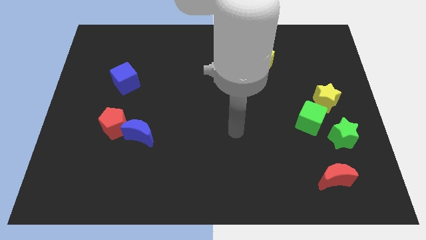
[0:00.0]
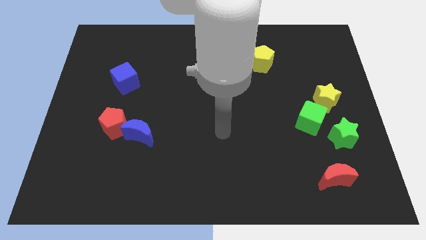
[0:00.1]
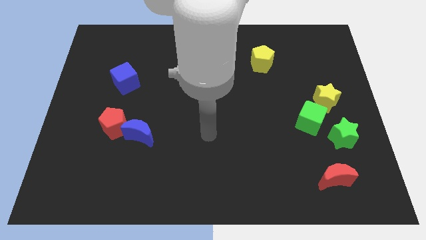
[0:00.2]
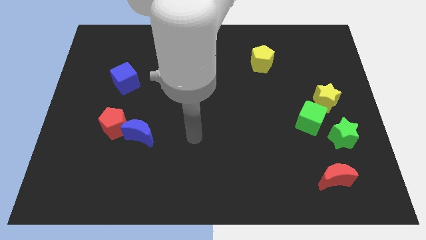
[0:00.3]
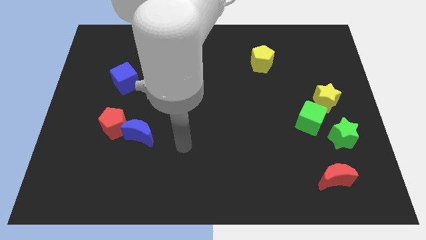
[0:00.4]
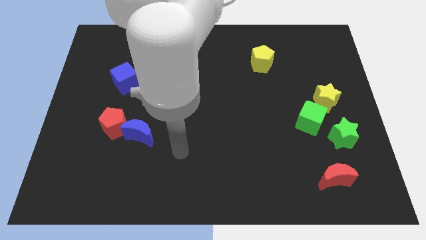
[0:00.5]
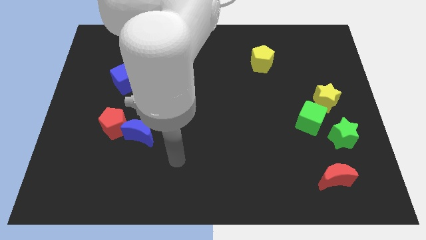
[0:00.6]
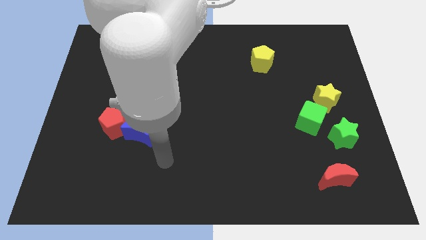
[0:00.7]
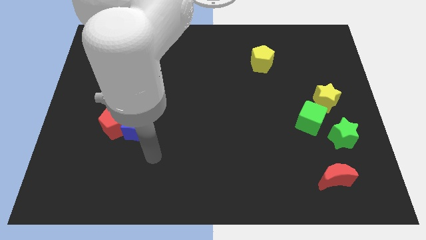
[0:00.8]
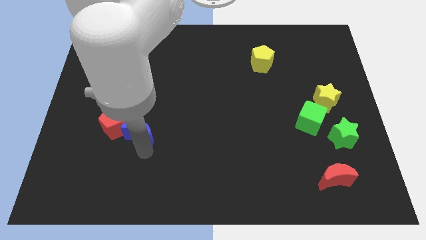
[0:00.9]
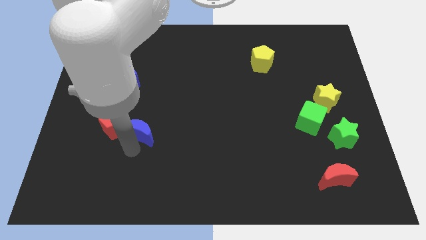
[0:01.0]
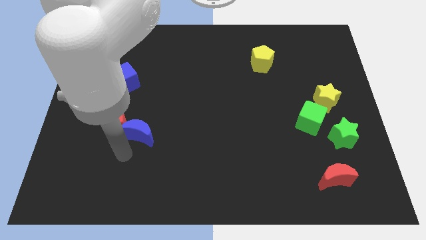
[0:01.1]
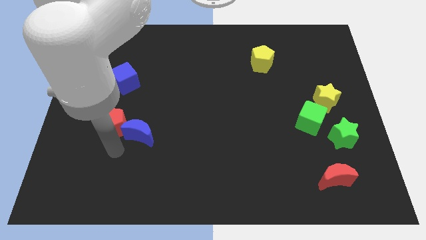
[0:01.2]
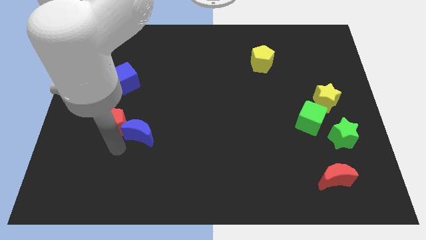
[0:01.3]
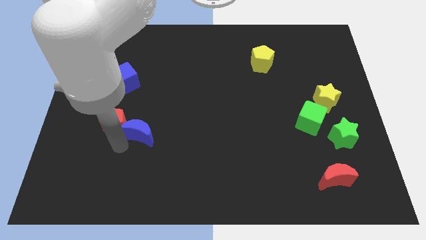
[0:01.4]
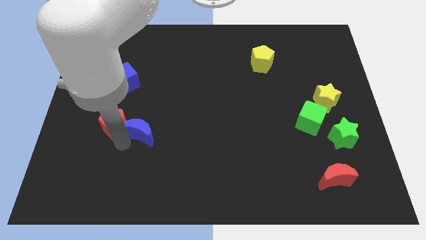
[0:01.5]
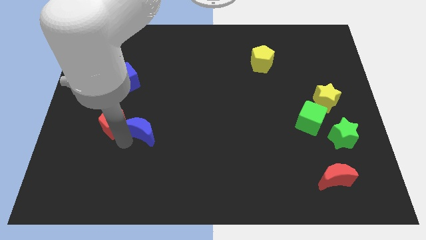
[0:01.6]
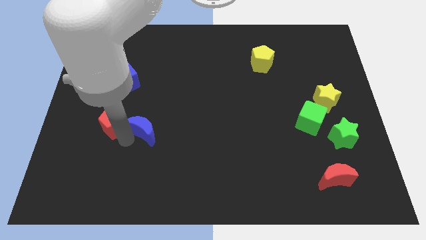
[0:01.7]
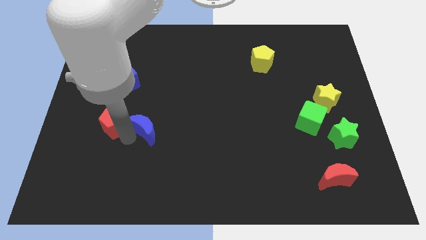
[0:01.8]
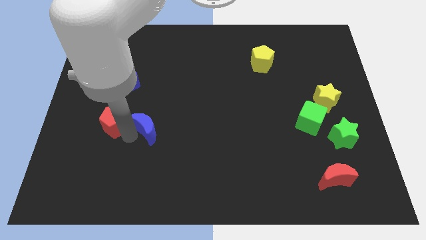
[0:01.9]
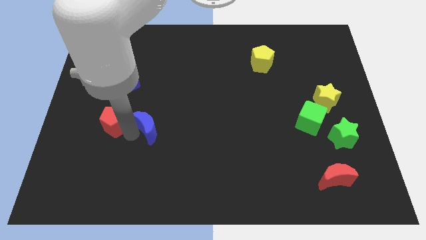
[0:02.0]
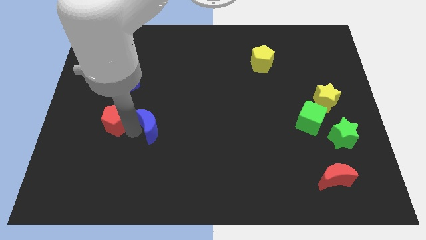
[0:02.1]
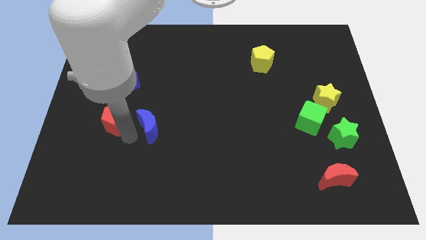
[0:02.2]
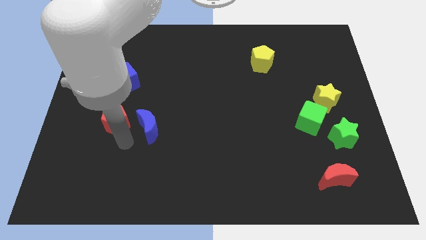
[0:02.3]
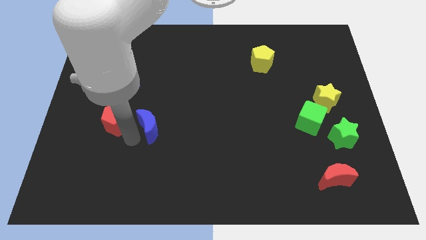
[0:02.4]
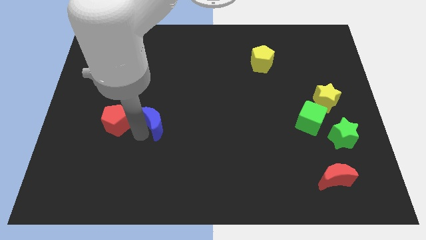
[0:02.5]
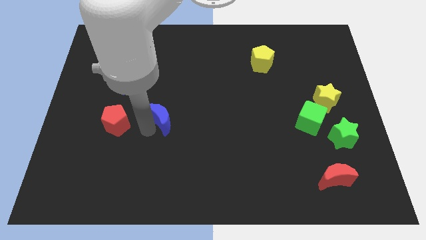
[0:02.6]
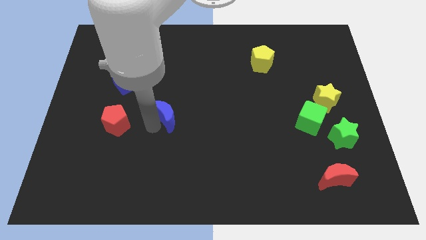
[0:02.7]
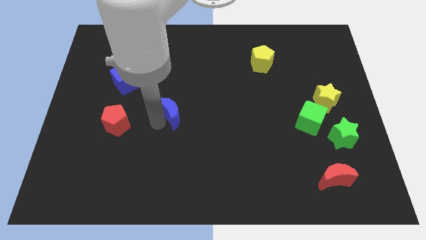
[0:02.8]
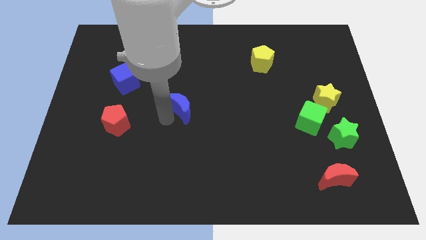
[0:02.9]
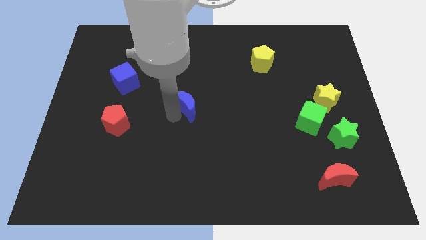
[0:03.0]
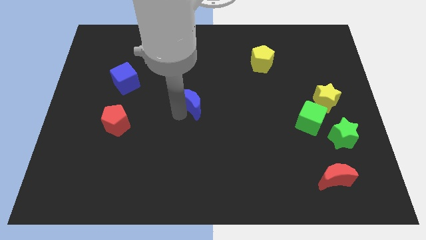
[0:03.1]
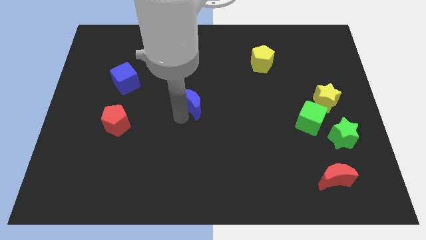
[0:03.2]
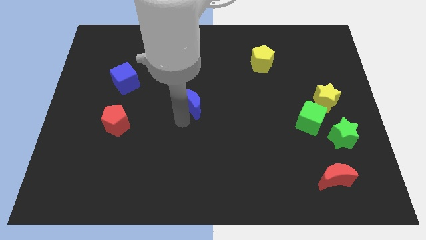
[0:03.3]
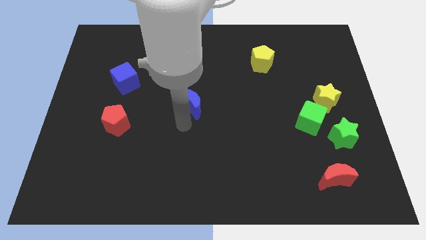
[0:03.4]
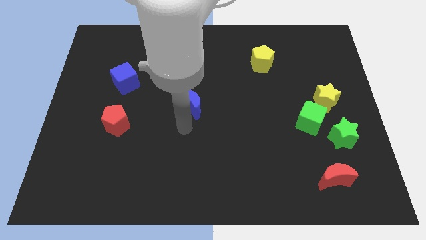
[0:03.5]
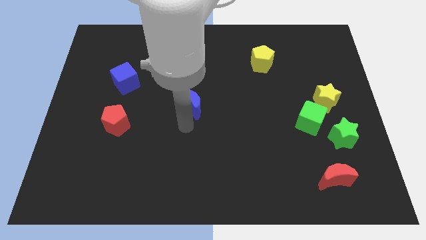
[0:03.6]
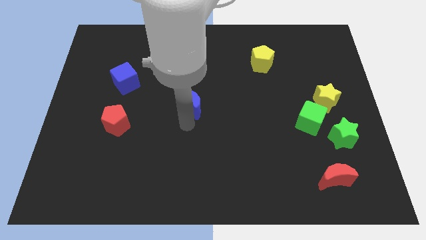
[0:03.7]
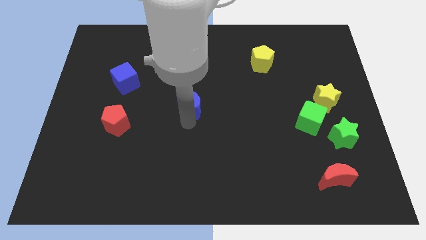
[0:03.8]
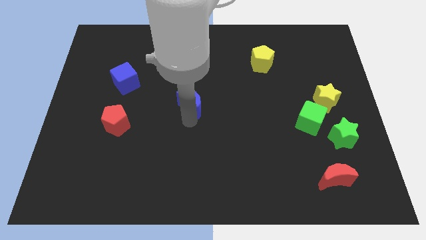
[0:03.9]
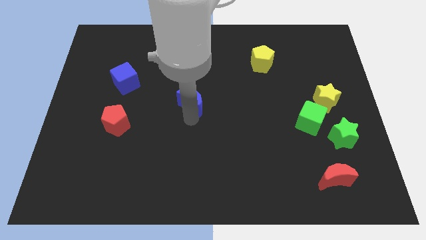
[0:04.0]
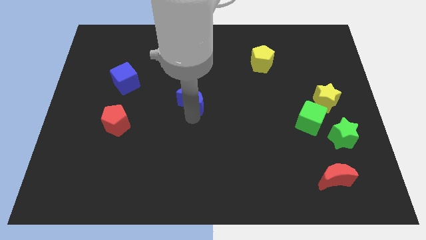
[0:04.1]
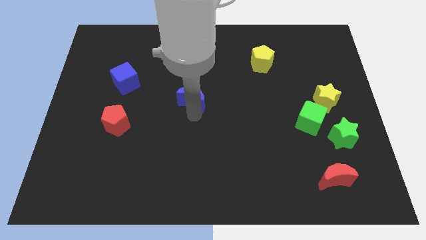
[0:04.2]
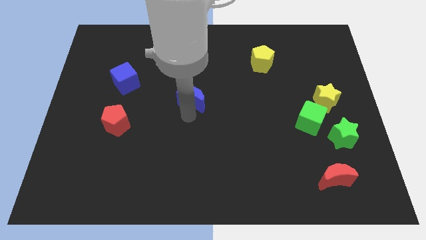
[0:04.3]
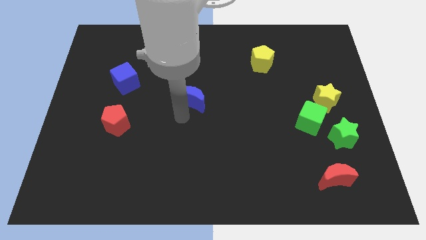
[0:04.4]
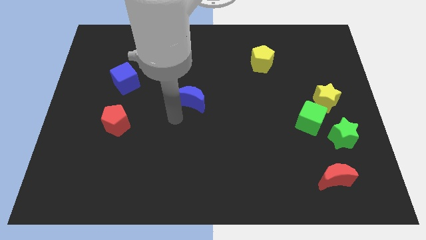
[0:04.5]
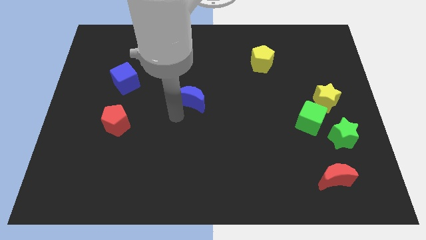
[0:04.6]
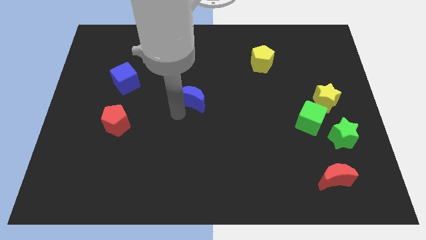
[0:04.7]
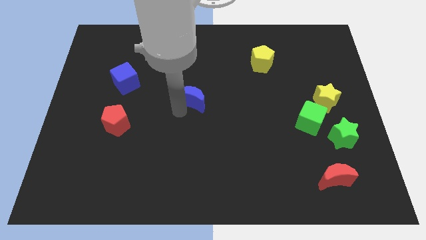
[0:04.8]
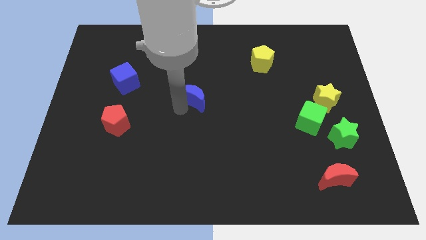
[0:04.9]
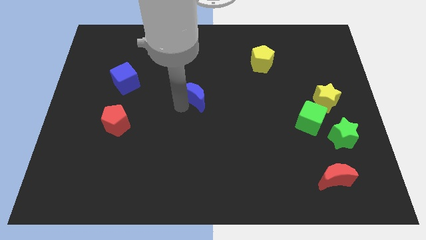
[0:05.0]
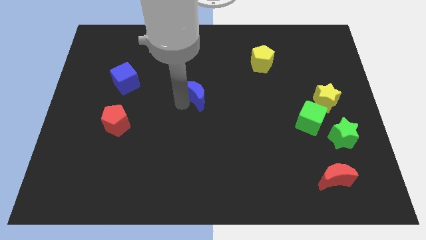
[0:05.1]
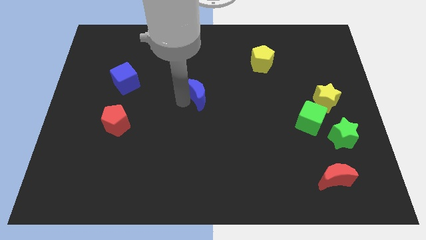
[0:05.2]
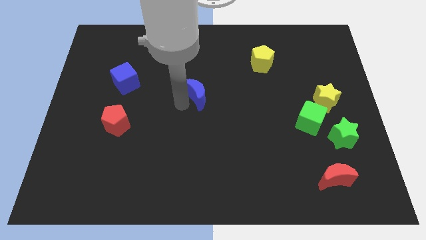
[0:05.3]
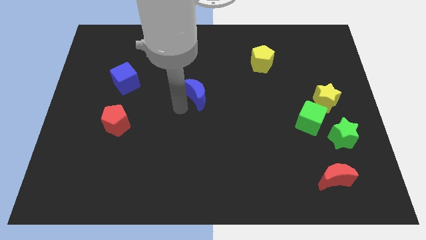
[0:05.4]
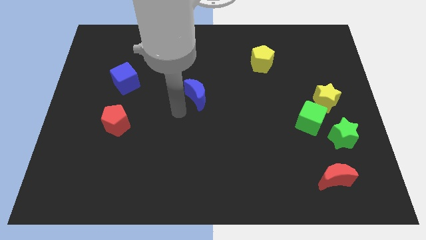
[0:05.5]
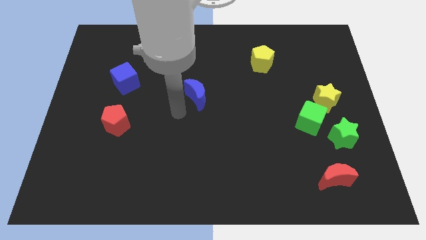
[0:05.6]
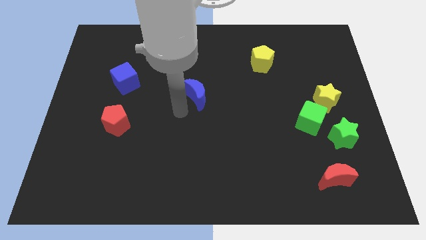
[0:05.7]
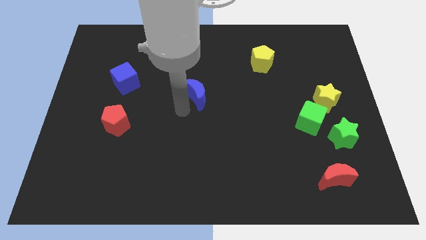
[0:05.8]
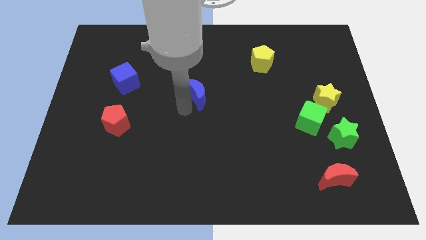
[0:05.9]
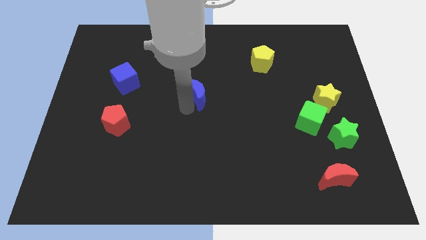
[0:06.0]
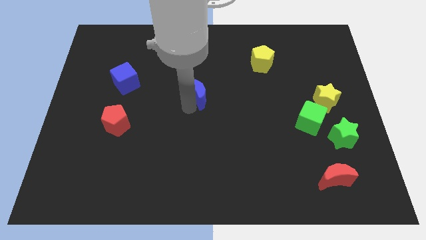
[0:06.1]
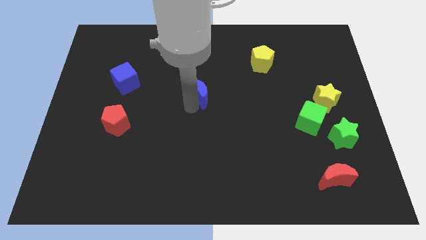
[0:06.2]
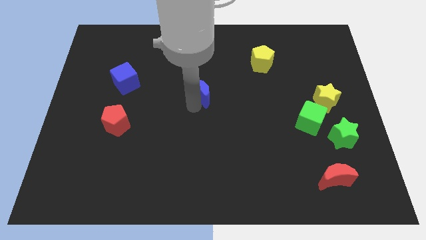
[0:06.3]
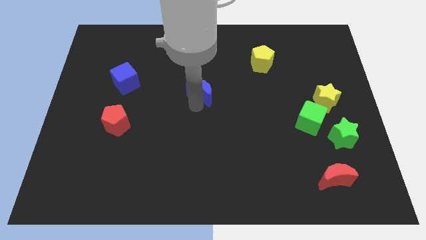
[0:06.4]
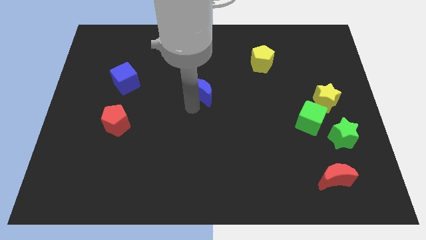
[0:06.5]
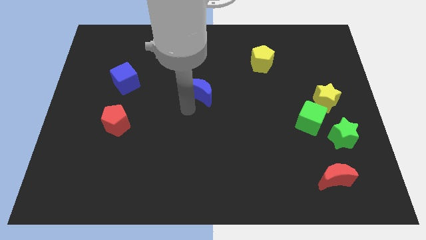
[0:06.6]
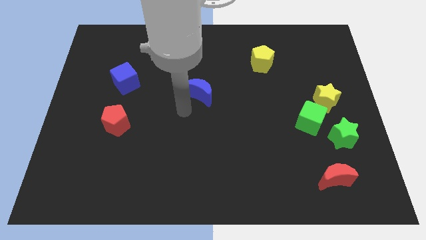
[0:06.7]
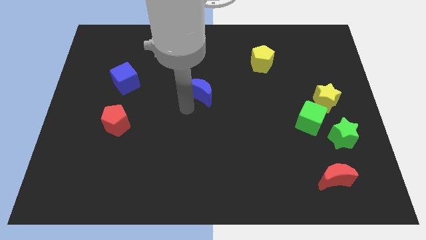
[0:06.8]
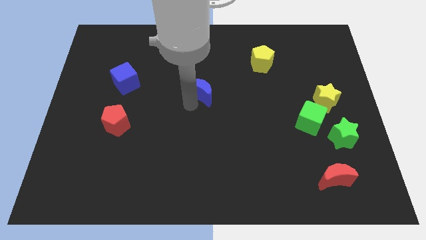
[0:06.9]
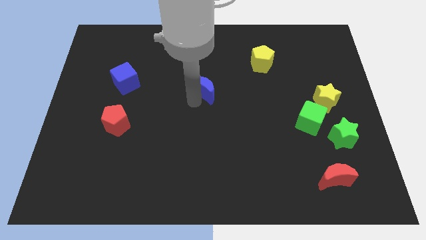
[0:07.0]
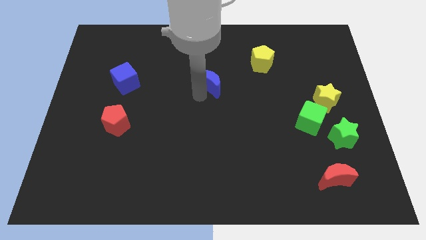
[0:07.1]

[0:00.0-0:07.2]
move the blue moon up and to the right diagonally

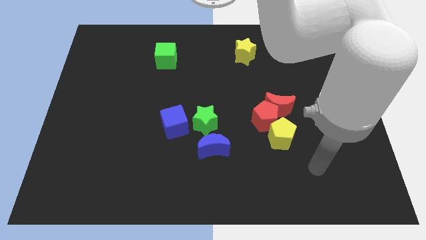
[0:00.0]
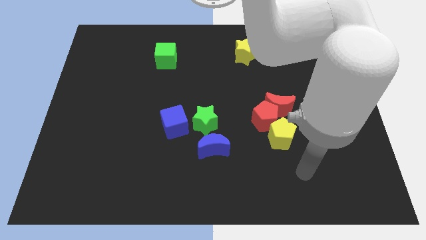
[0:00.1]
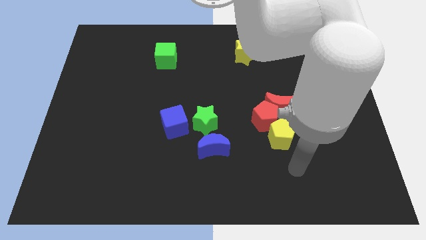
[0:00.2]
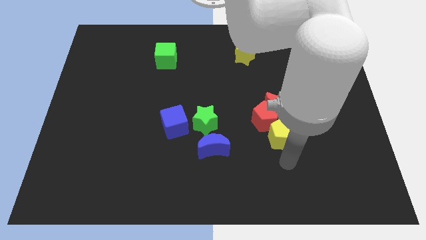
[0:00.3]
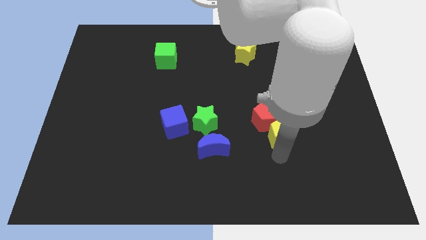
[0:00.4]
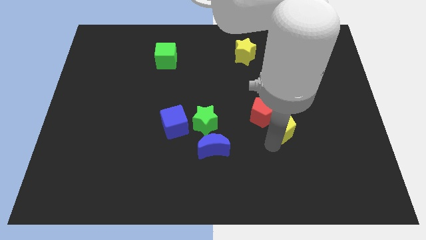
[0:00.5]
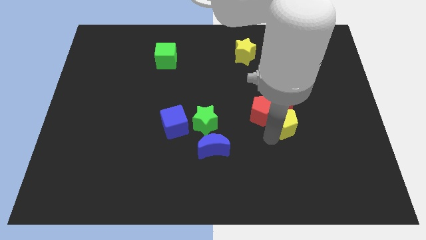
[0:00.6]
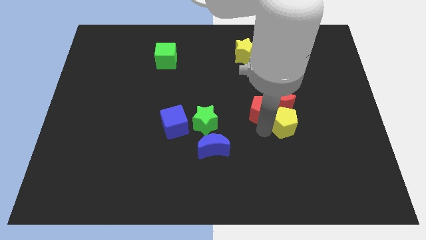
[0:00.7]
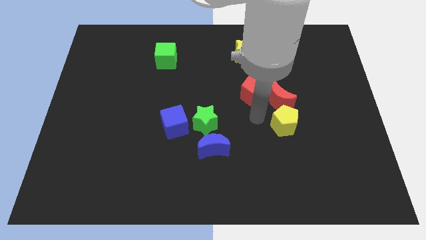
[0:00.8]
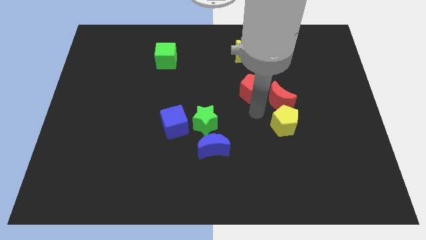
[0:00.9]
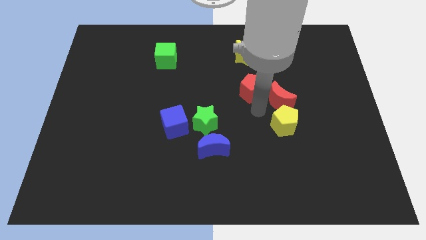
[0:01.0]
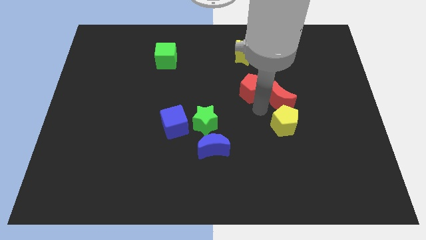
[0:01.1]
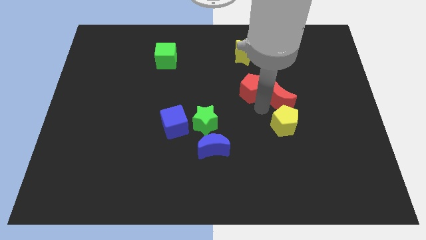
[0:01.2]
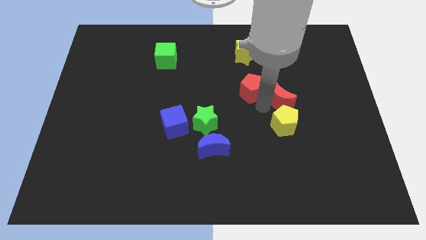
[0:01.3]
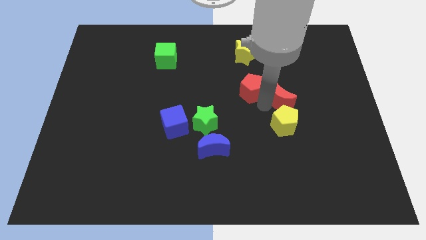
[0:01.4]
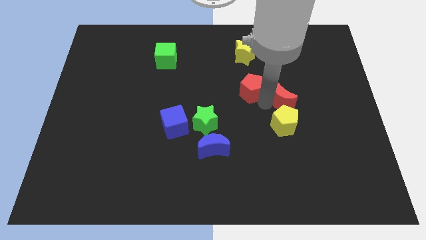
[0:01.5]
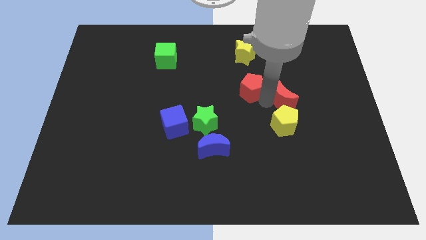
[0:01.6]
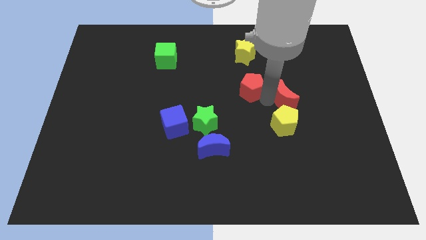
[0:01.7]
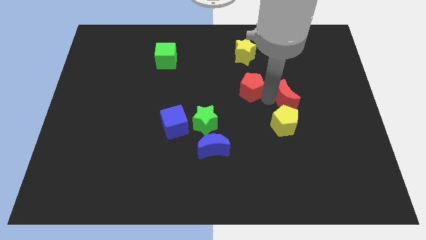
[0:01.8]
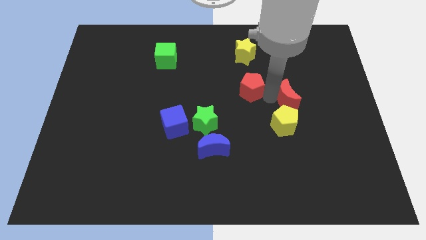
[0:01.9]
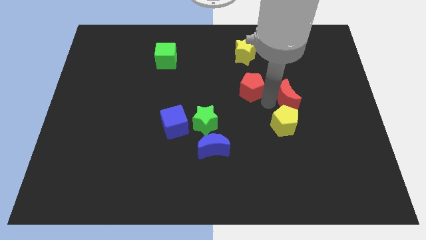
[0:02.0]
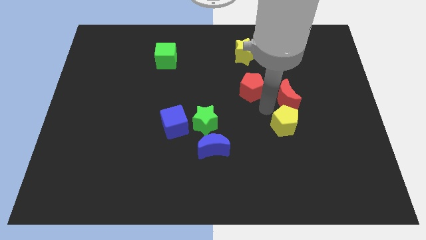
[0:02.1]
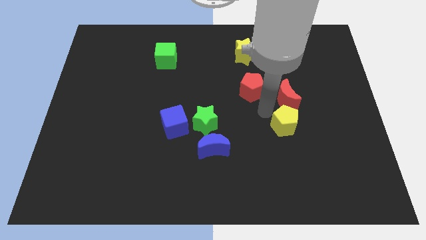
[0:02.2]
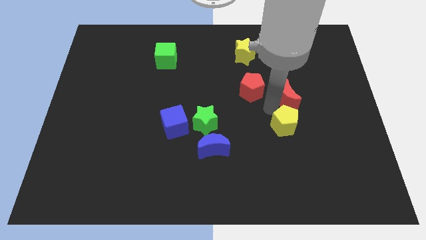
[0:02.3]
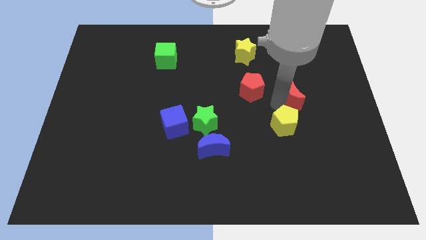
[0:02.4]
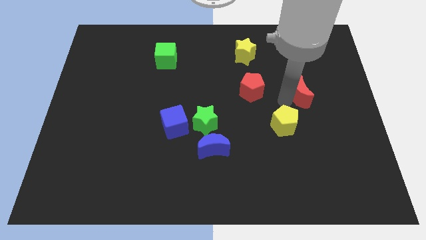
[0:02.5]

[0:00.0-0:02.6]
slightly push the red moon upwards and to the right
